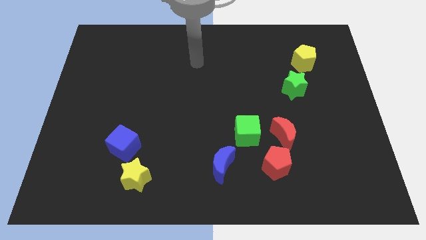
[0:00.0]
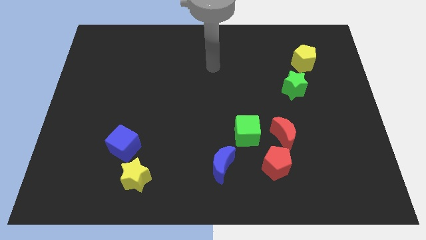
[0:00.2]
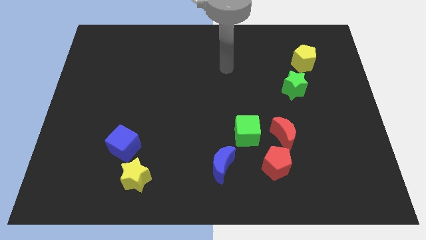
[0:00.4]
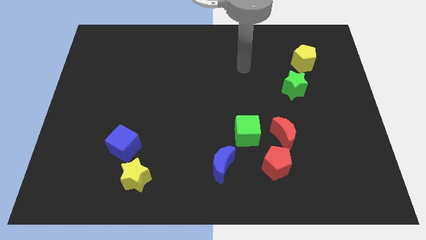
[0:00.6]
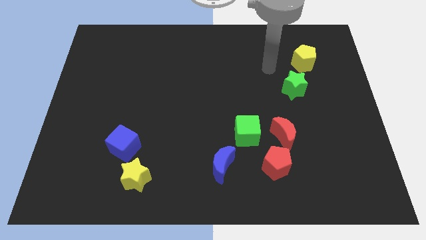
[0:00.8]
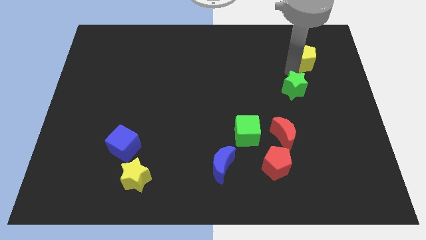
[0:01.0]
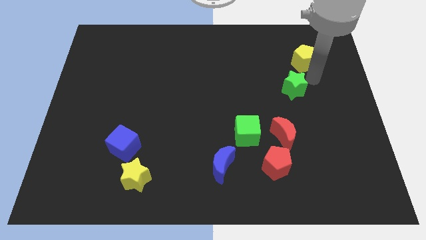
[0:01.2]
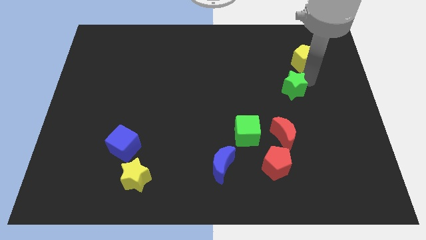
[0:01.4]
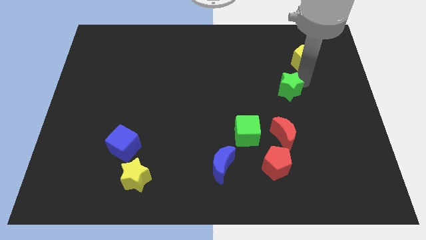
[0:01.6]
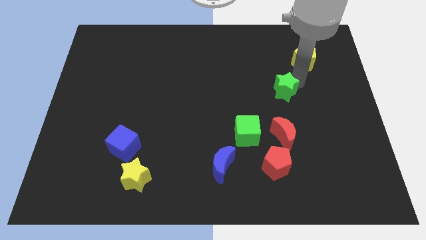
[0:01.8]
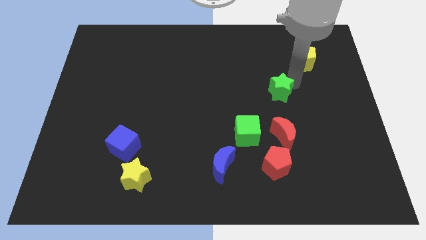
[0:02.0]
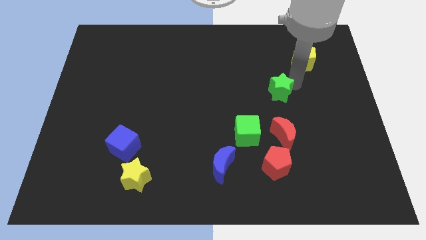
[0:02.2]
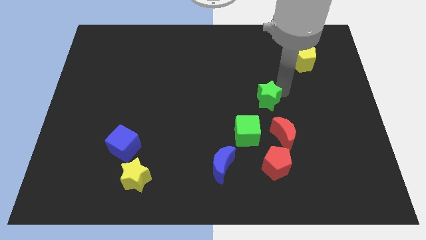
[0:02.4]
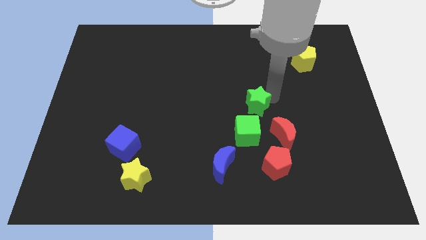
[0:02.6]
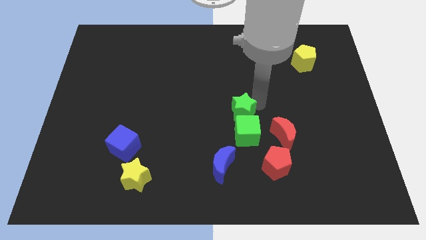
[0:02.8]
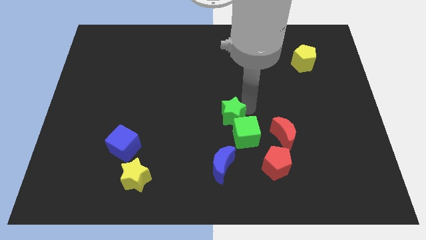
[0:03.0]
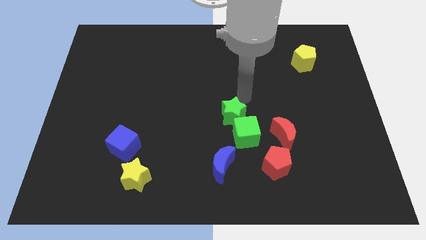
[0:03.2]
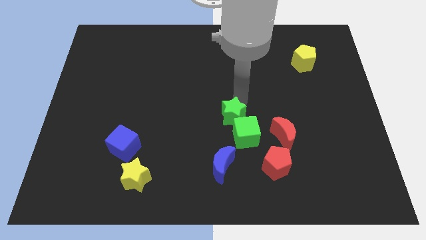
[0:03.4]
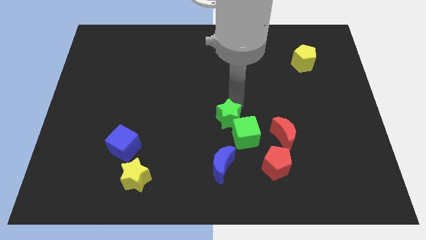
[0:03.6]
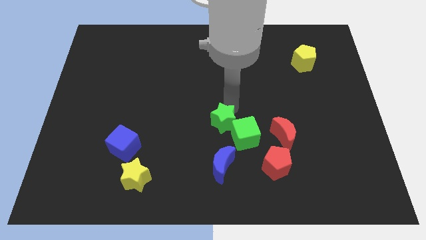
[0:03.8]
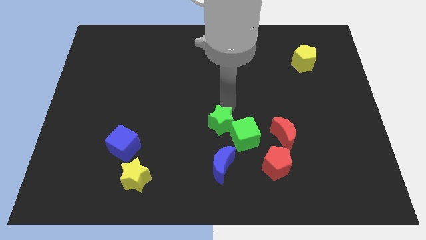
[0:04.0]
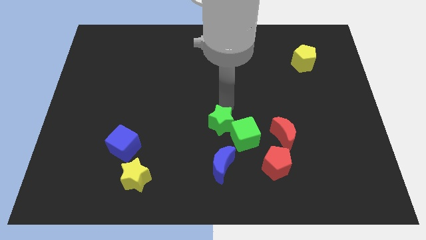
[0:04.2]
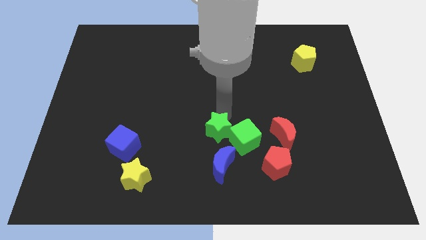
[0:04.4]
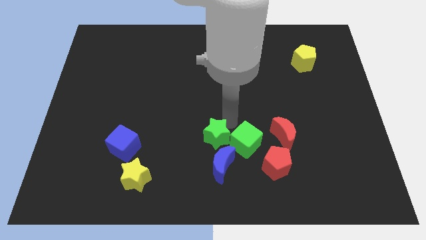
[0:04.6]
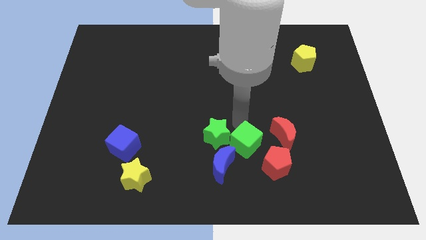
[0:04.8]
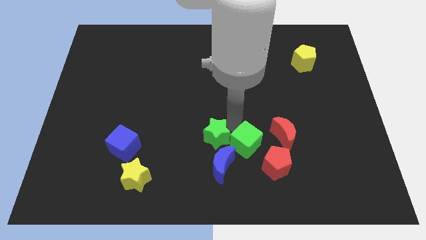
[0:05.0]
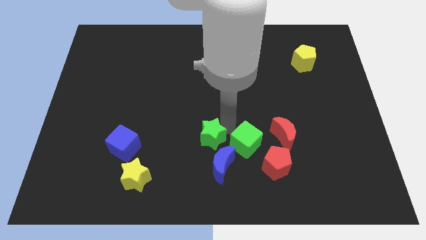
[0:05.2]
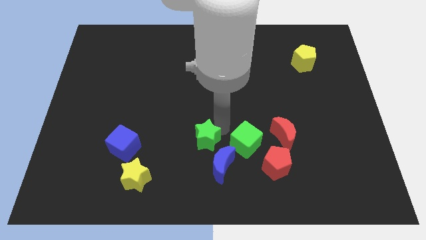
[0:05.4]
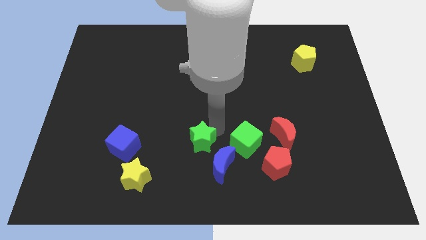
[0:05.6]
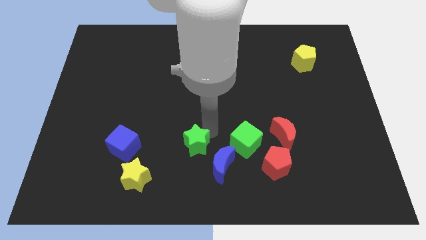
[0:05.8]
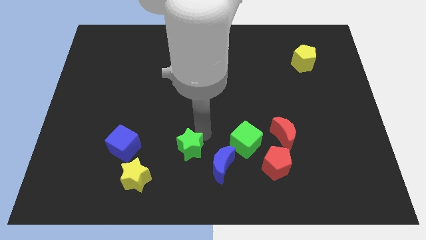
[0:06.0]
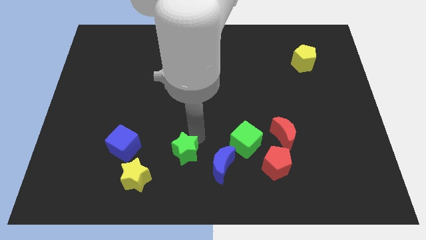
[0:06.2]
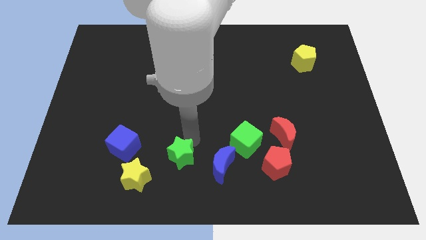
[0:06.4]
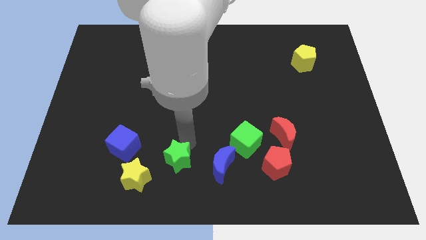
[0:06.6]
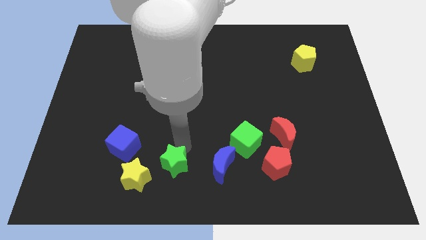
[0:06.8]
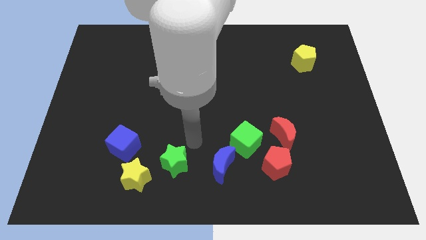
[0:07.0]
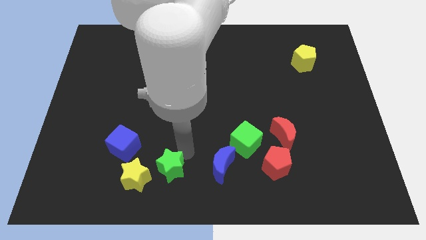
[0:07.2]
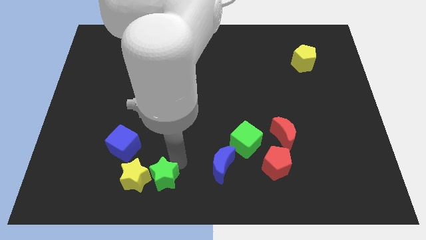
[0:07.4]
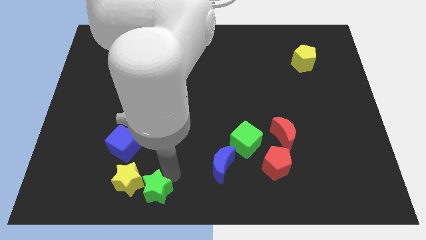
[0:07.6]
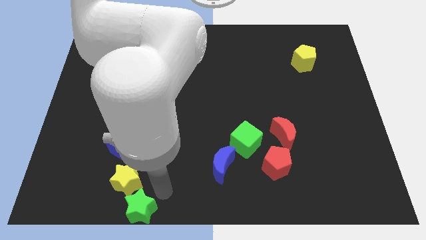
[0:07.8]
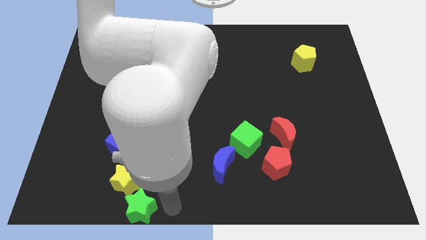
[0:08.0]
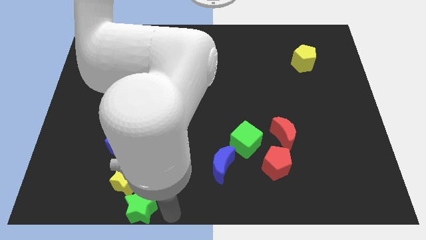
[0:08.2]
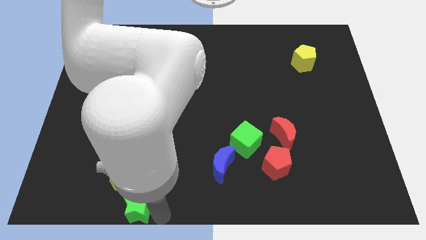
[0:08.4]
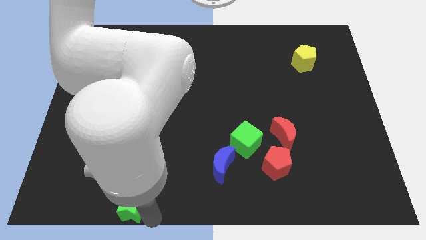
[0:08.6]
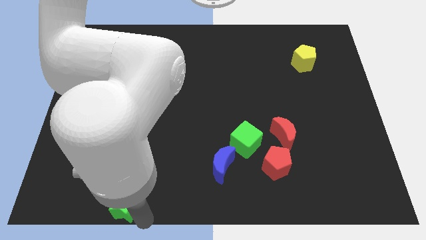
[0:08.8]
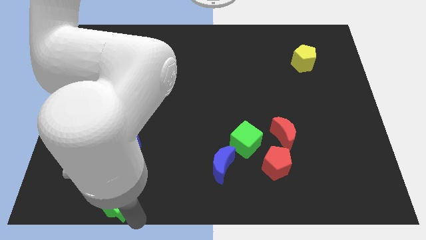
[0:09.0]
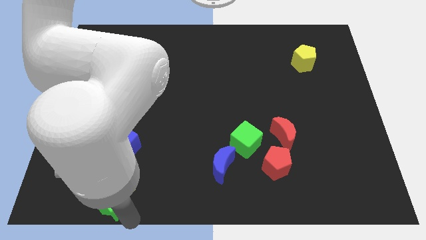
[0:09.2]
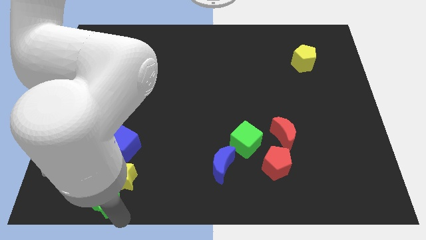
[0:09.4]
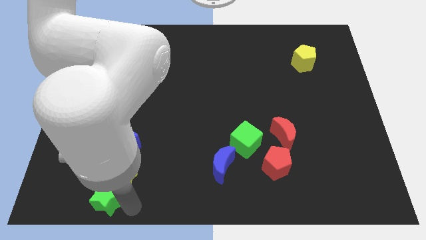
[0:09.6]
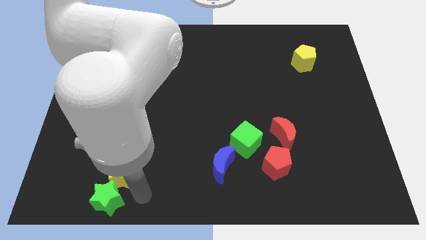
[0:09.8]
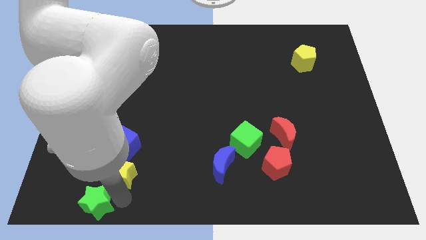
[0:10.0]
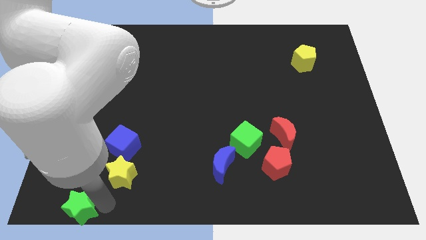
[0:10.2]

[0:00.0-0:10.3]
put the green star to the bottom left of the board
